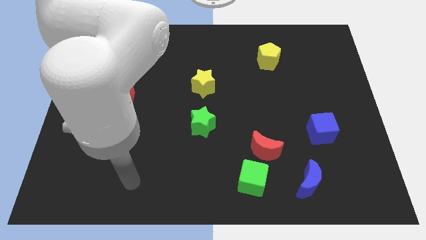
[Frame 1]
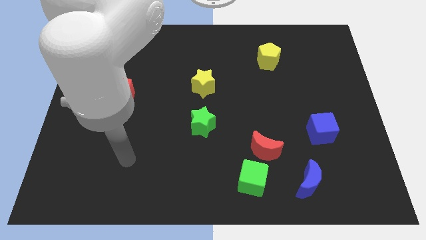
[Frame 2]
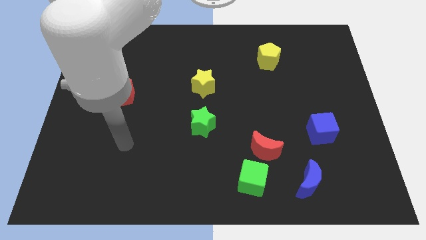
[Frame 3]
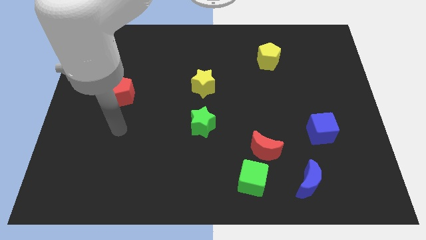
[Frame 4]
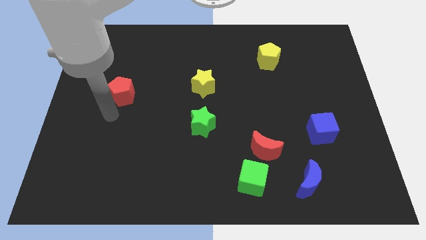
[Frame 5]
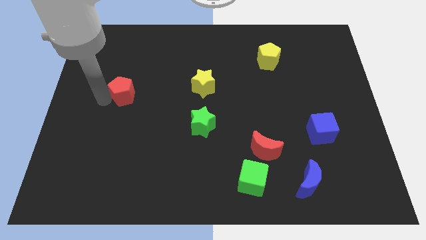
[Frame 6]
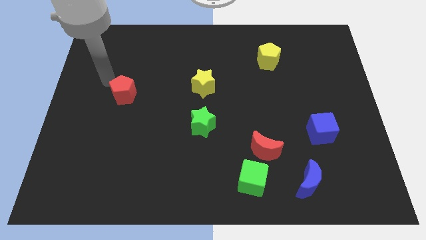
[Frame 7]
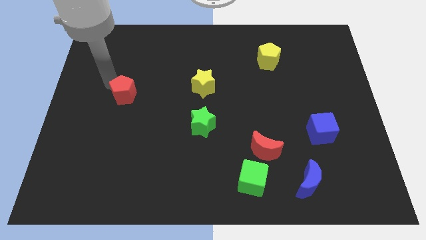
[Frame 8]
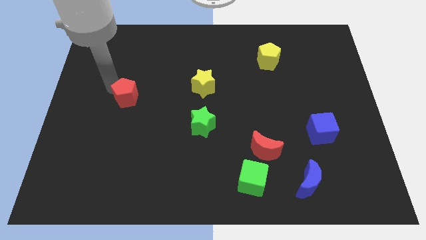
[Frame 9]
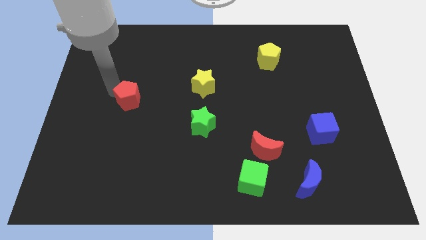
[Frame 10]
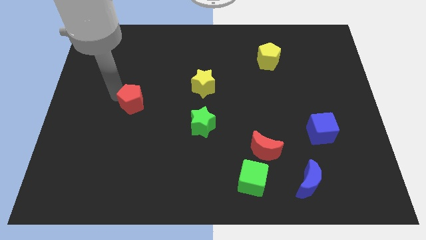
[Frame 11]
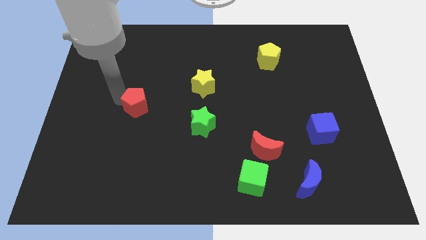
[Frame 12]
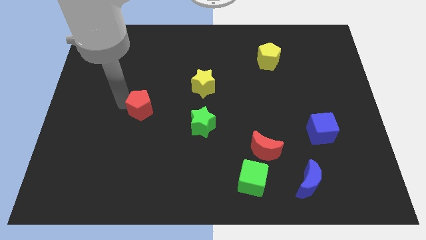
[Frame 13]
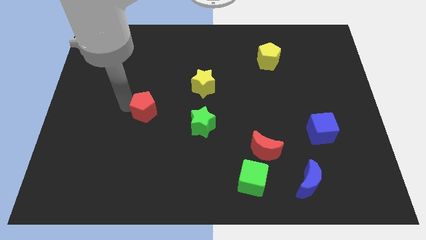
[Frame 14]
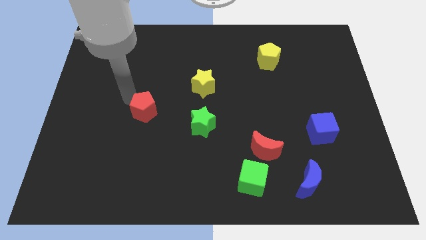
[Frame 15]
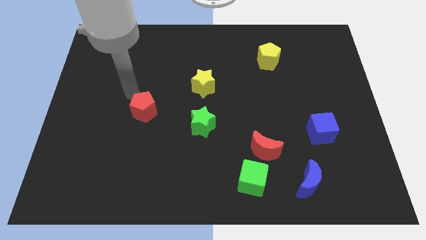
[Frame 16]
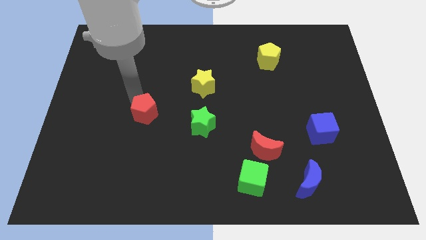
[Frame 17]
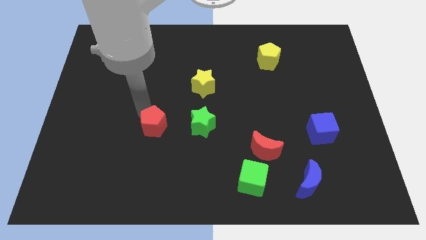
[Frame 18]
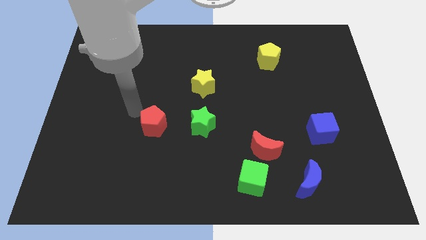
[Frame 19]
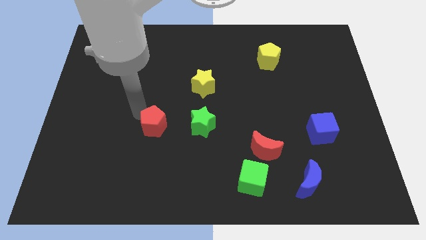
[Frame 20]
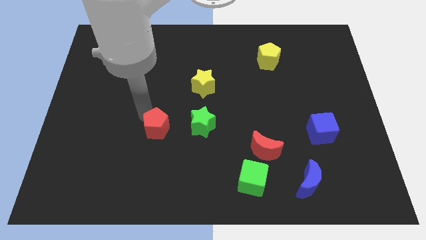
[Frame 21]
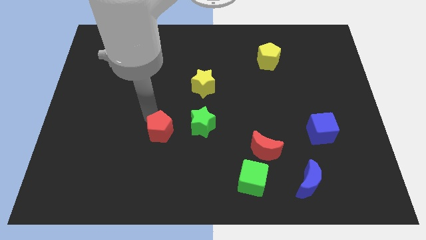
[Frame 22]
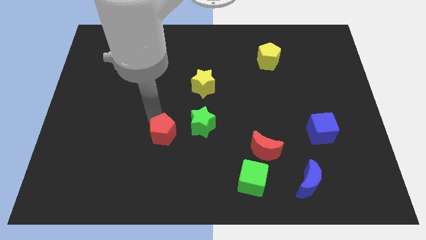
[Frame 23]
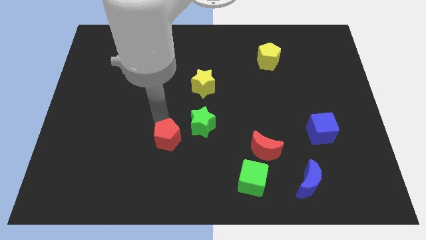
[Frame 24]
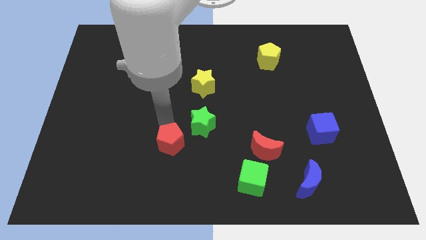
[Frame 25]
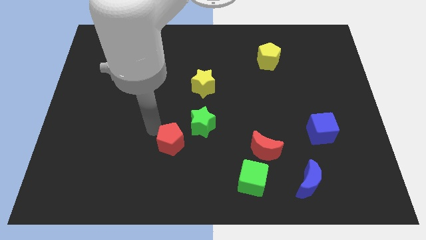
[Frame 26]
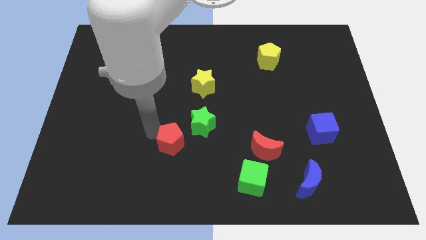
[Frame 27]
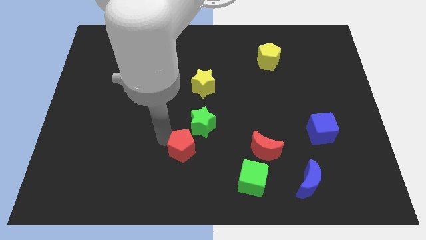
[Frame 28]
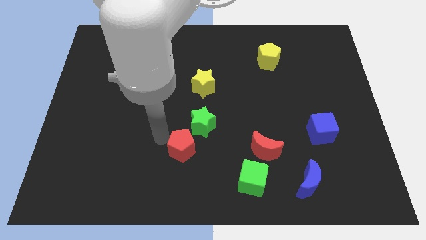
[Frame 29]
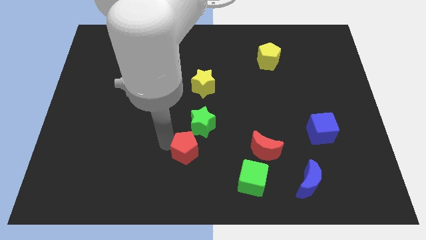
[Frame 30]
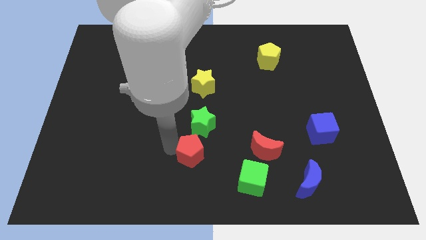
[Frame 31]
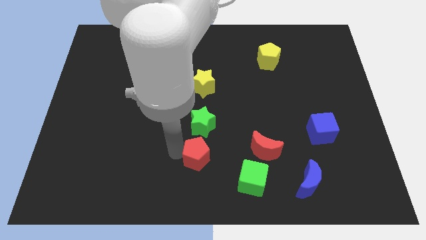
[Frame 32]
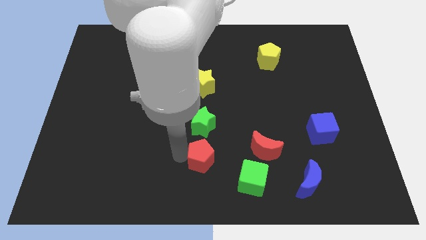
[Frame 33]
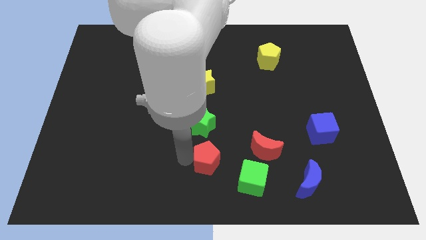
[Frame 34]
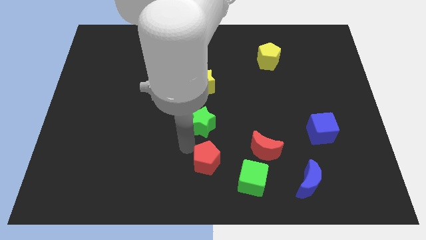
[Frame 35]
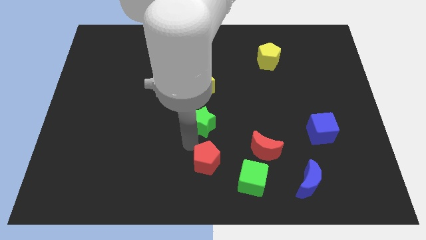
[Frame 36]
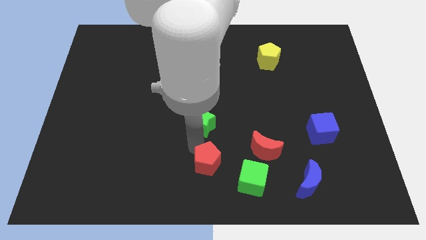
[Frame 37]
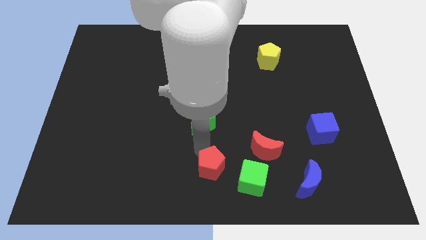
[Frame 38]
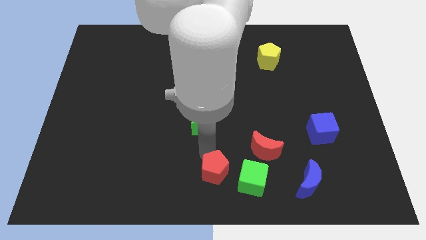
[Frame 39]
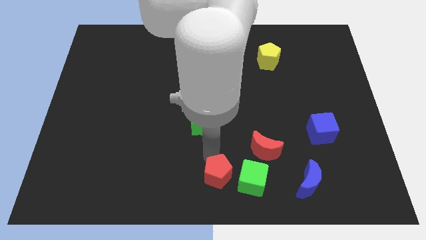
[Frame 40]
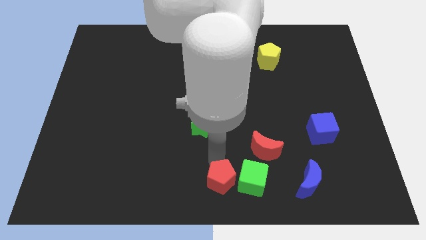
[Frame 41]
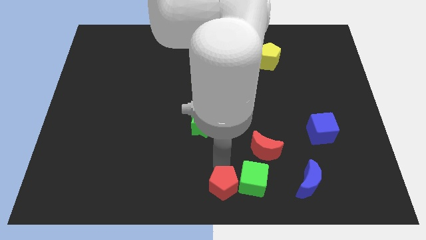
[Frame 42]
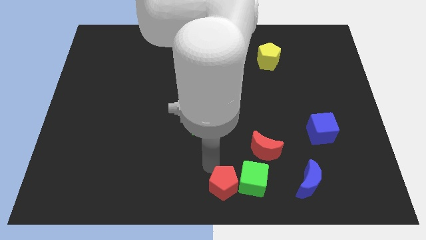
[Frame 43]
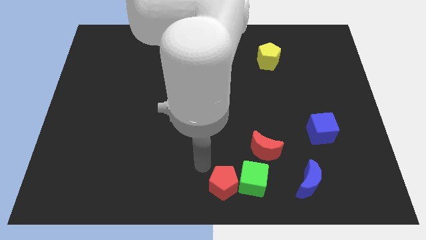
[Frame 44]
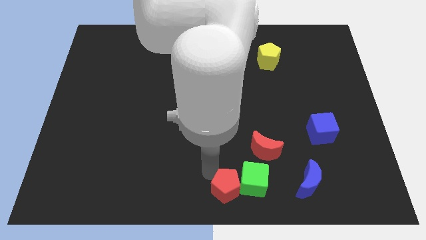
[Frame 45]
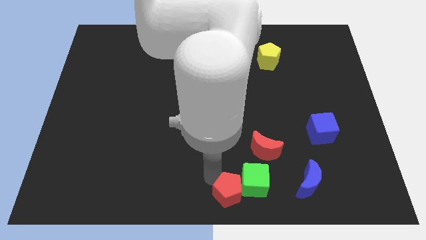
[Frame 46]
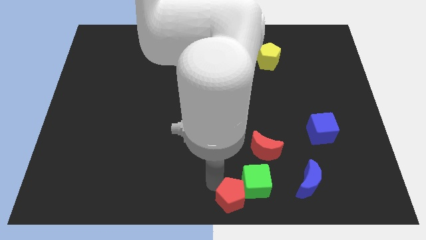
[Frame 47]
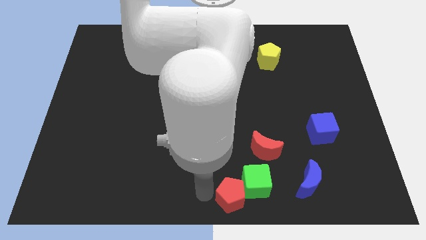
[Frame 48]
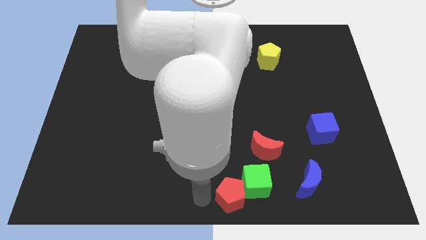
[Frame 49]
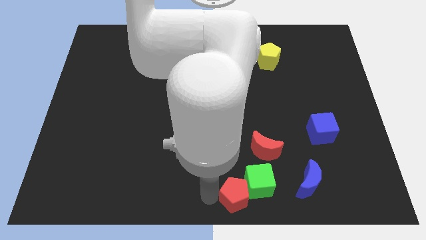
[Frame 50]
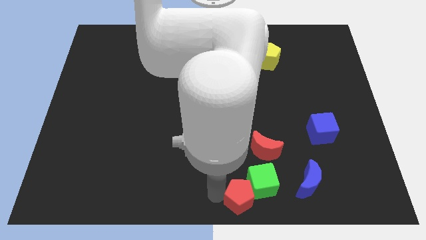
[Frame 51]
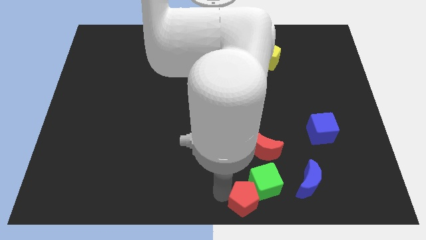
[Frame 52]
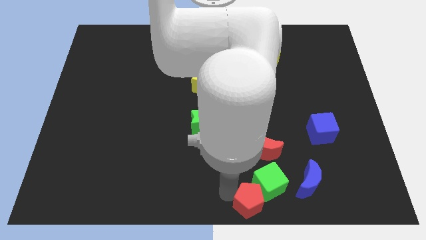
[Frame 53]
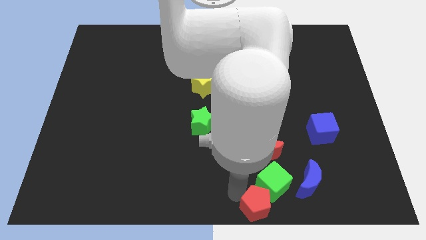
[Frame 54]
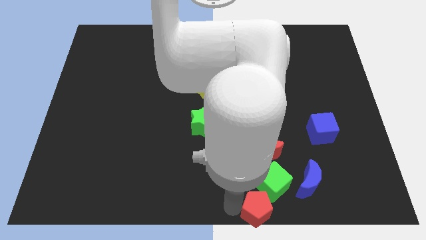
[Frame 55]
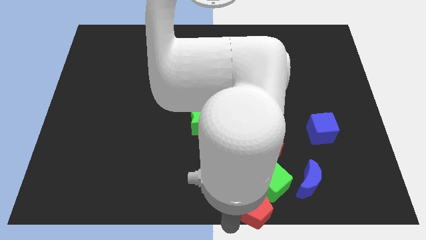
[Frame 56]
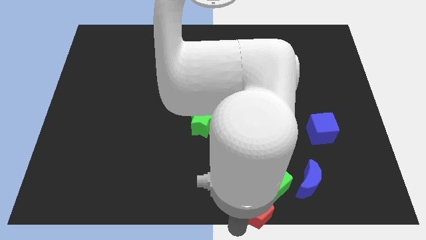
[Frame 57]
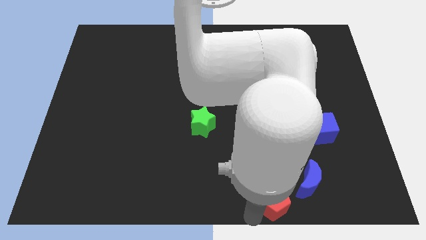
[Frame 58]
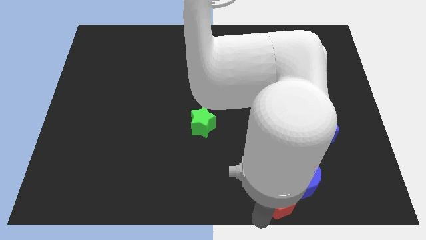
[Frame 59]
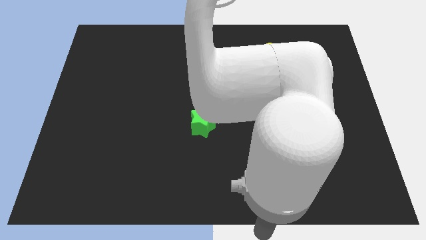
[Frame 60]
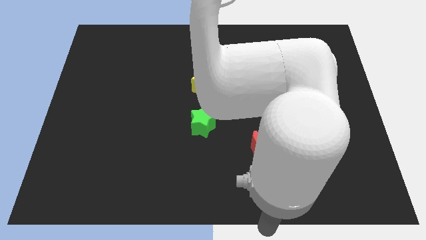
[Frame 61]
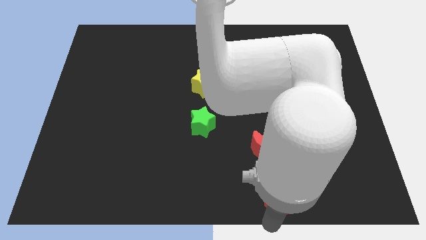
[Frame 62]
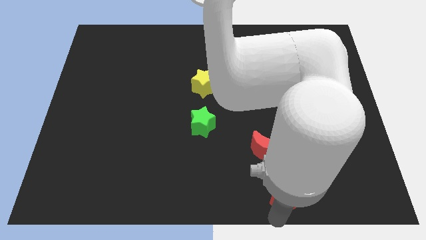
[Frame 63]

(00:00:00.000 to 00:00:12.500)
put the red pentagon next to the blue moon
